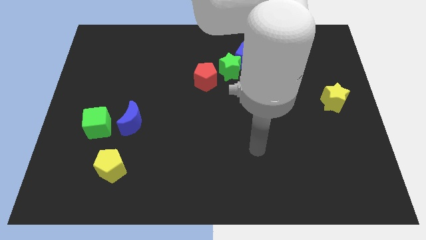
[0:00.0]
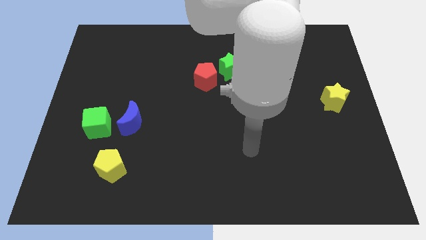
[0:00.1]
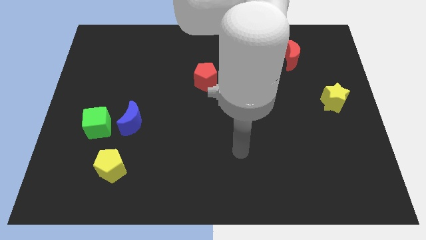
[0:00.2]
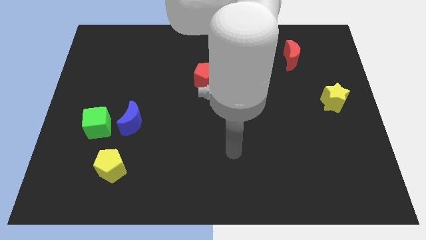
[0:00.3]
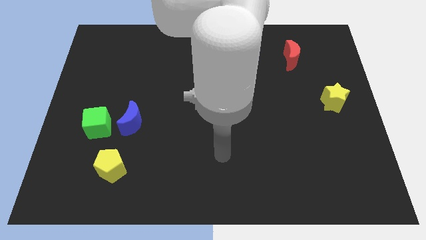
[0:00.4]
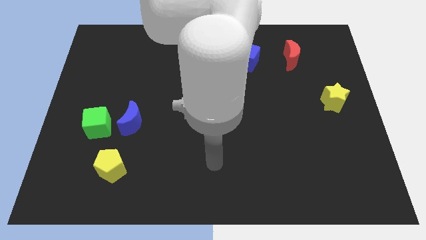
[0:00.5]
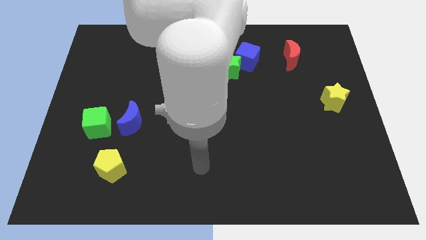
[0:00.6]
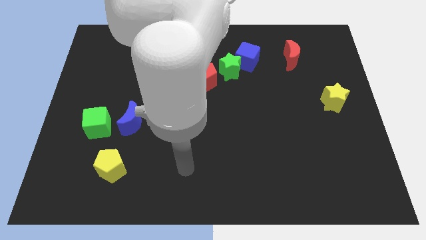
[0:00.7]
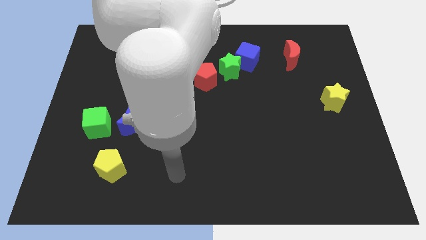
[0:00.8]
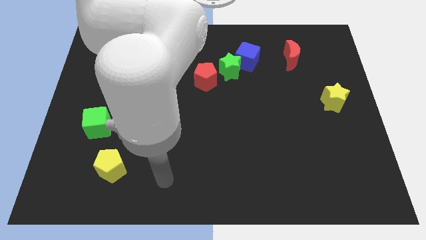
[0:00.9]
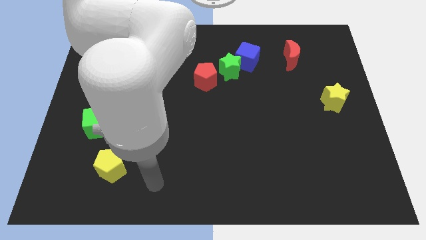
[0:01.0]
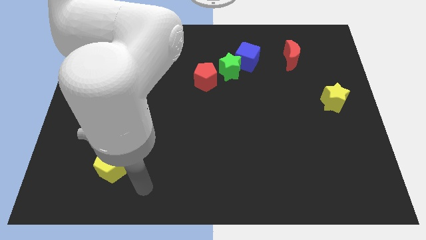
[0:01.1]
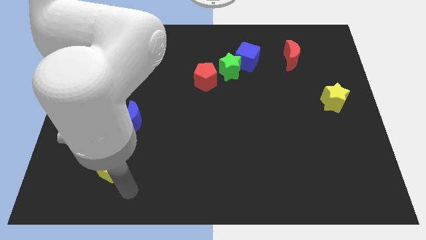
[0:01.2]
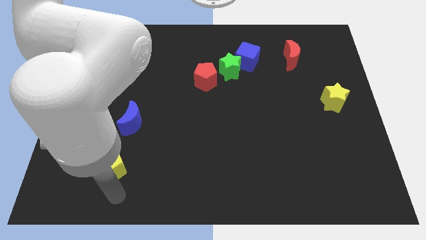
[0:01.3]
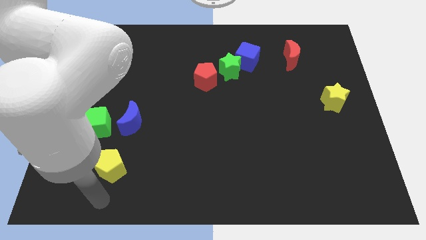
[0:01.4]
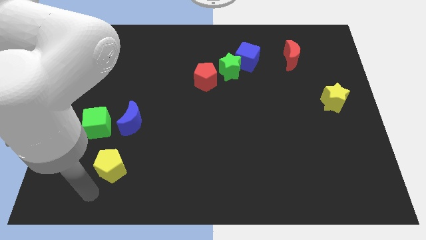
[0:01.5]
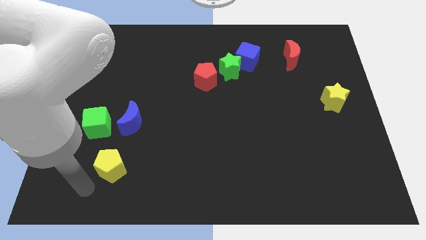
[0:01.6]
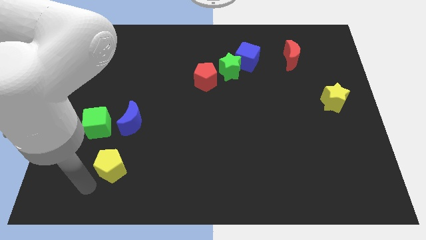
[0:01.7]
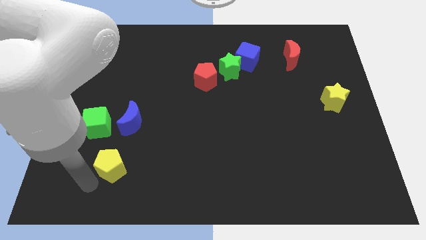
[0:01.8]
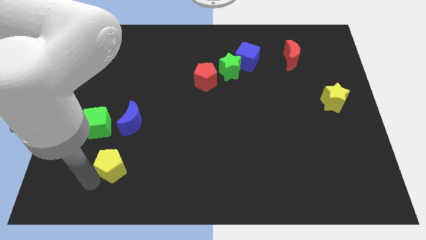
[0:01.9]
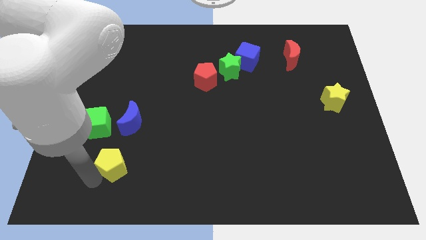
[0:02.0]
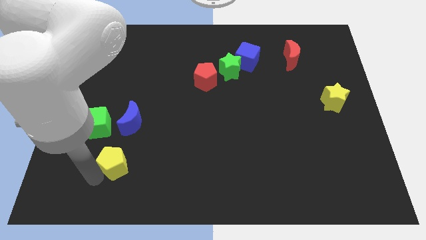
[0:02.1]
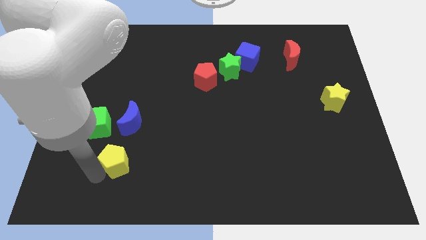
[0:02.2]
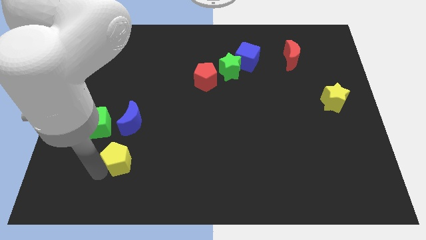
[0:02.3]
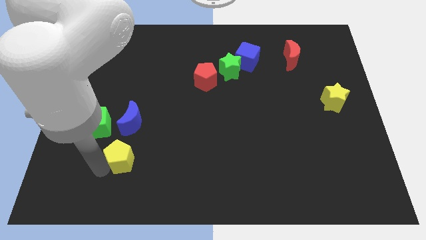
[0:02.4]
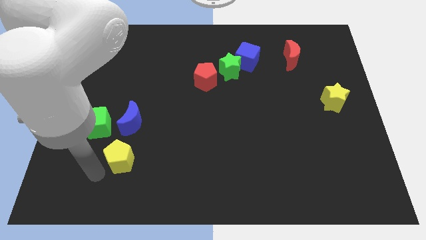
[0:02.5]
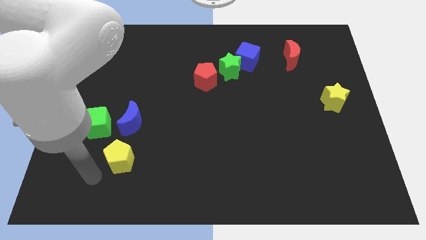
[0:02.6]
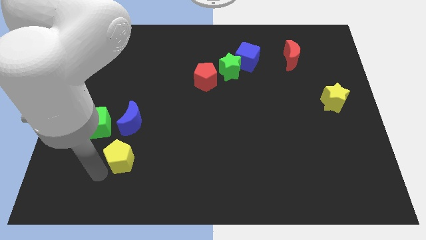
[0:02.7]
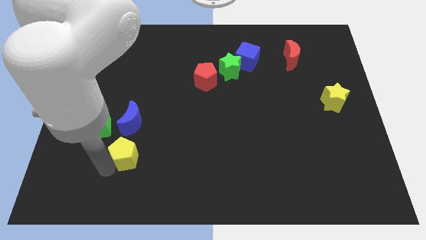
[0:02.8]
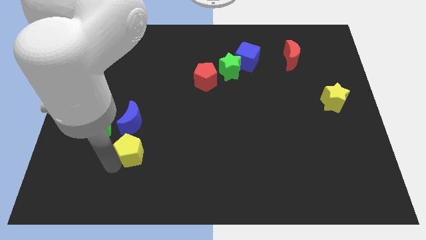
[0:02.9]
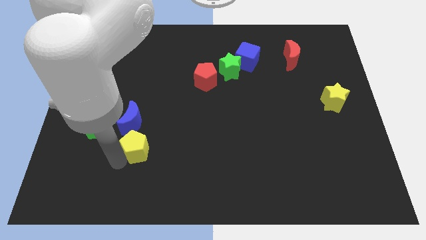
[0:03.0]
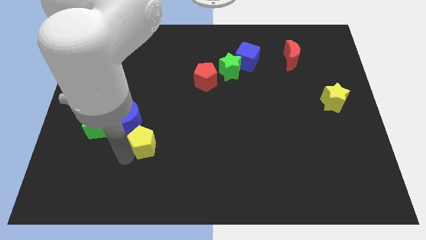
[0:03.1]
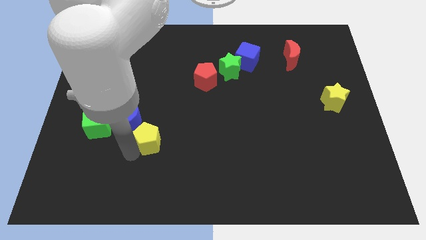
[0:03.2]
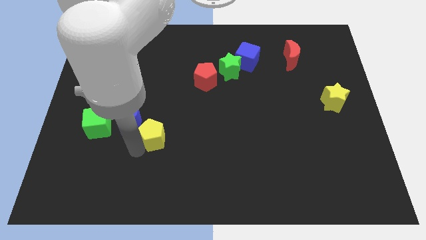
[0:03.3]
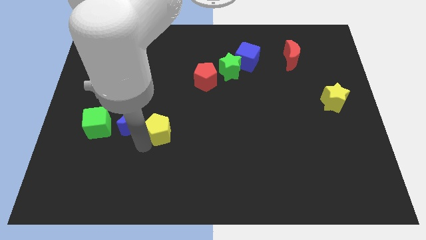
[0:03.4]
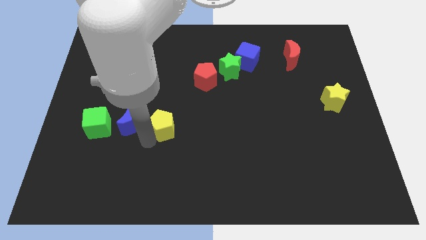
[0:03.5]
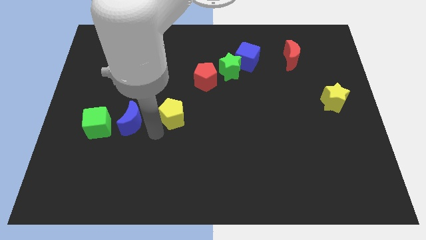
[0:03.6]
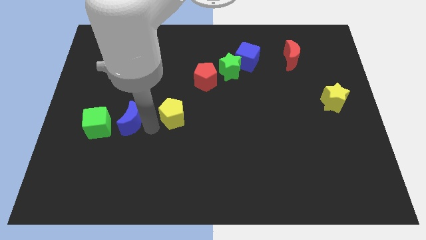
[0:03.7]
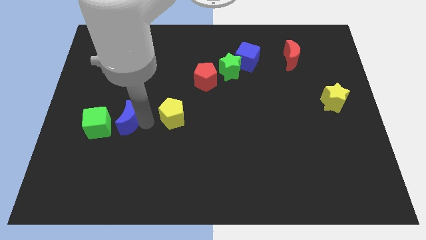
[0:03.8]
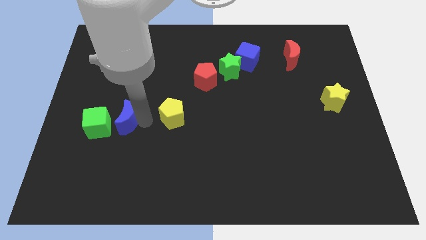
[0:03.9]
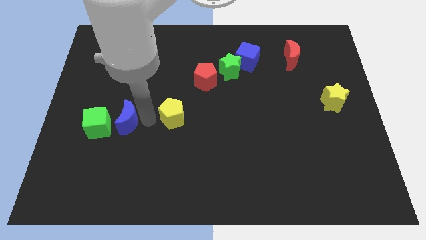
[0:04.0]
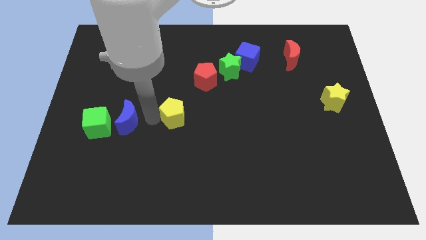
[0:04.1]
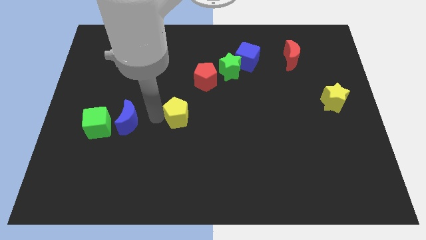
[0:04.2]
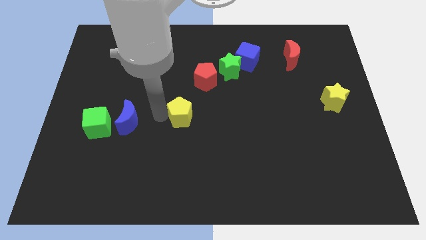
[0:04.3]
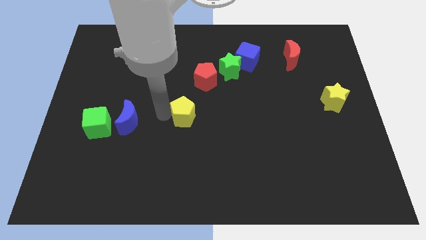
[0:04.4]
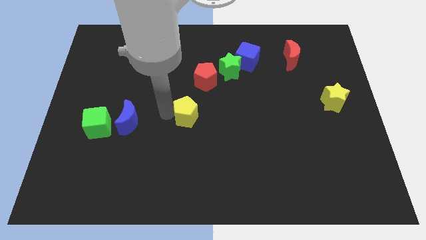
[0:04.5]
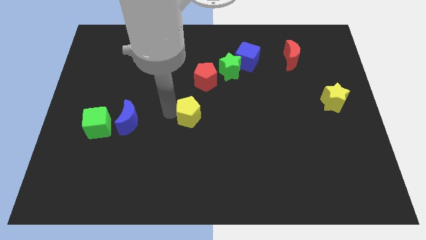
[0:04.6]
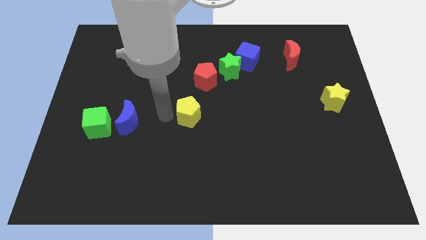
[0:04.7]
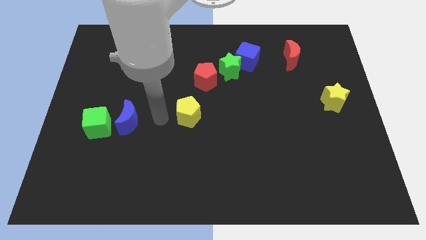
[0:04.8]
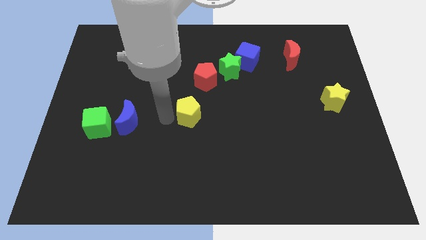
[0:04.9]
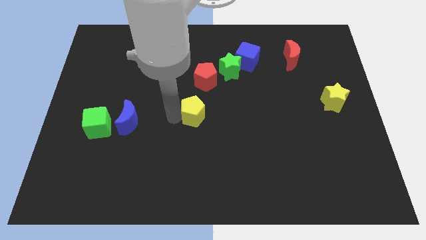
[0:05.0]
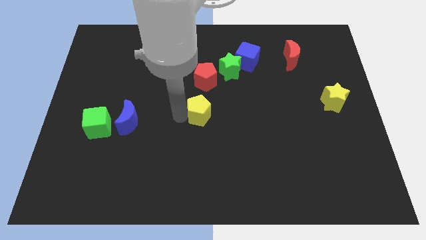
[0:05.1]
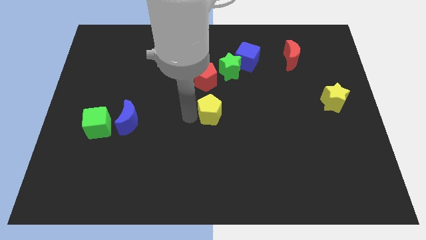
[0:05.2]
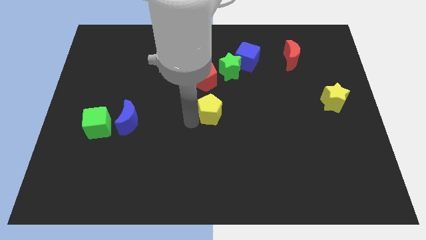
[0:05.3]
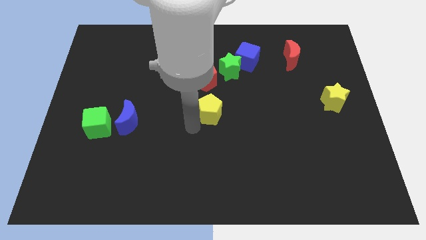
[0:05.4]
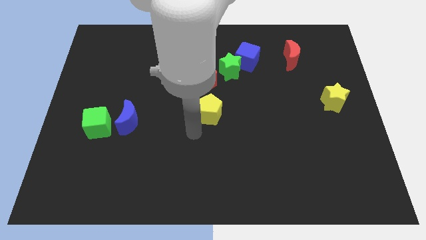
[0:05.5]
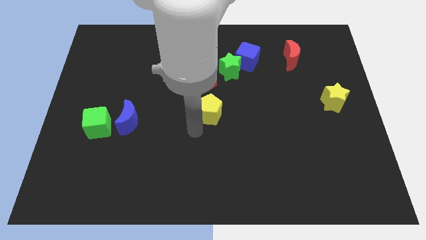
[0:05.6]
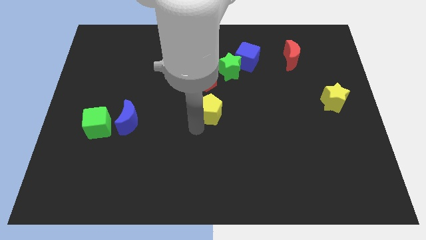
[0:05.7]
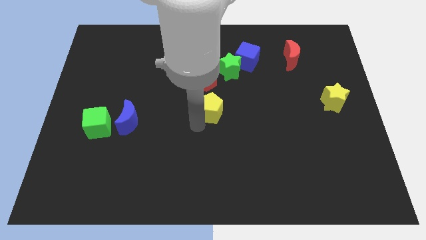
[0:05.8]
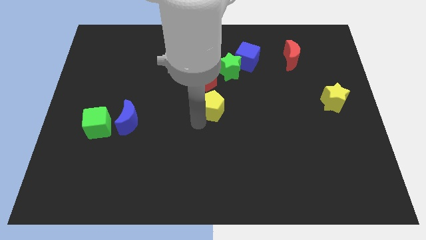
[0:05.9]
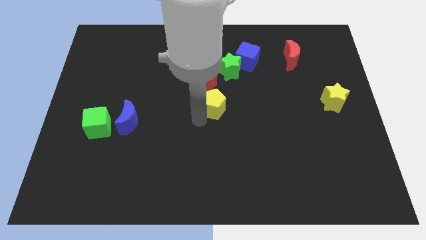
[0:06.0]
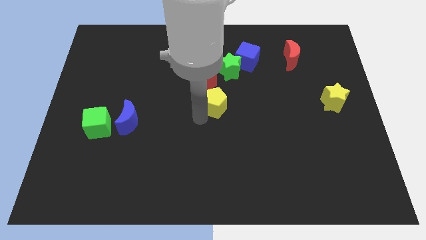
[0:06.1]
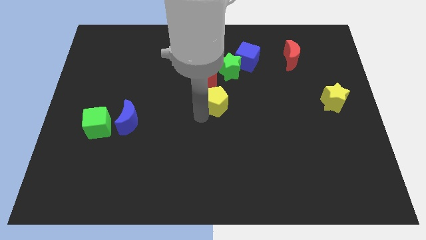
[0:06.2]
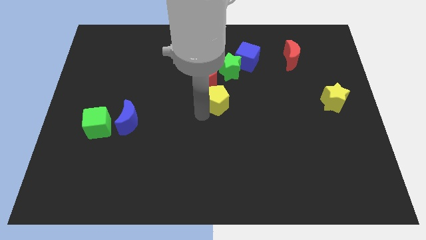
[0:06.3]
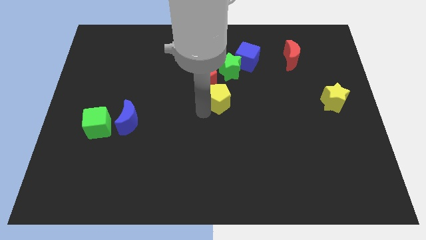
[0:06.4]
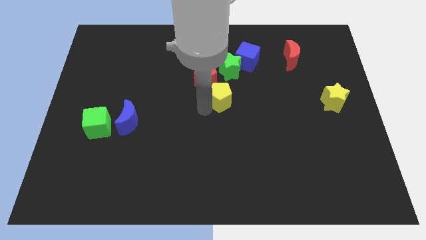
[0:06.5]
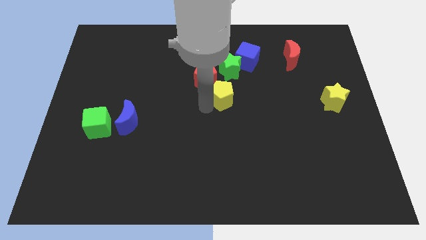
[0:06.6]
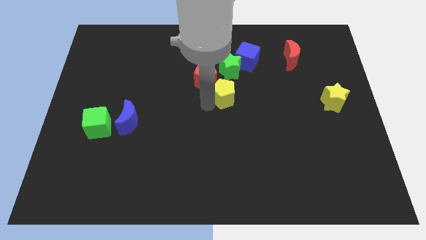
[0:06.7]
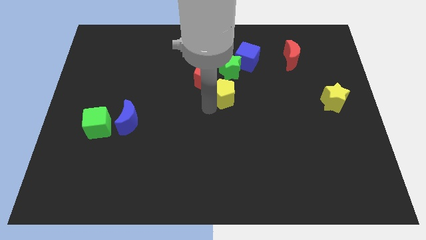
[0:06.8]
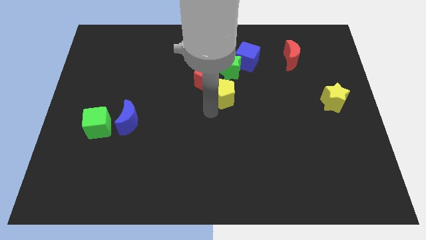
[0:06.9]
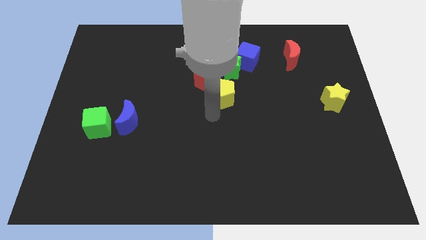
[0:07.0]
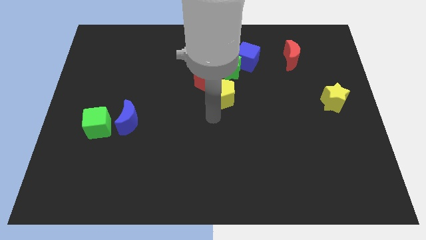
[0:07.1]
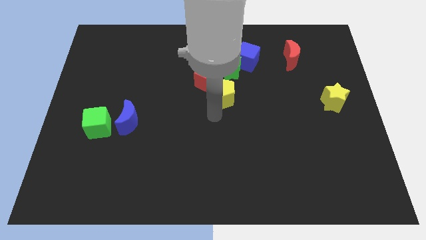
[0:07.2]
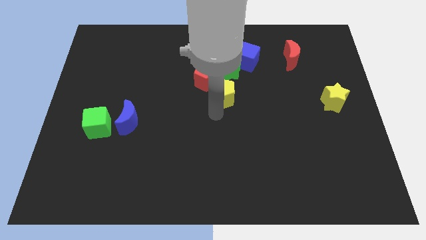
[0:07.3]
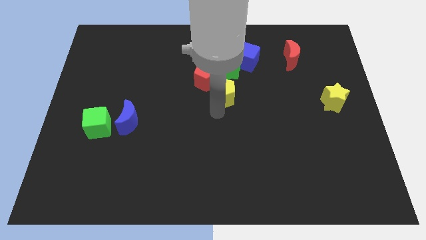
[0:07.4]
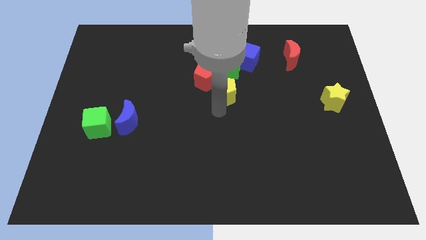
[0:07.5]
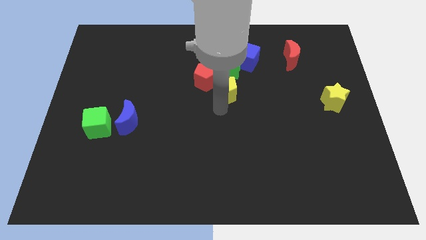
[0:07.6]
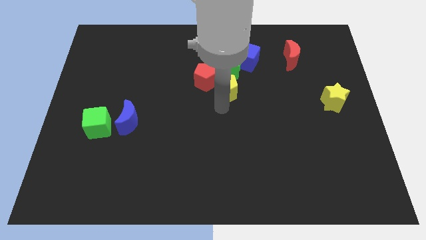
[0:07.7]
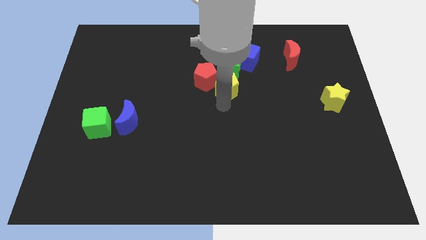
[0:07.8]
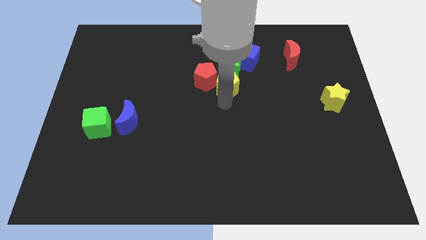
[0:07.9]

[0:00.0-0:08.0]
move the yellow pentagon close to the green star
